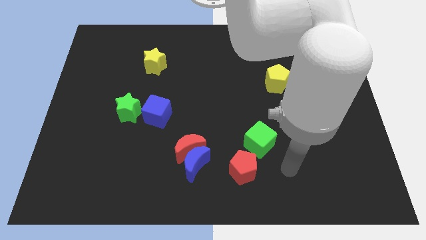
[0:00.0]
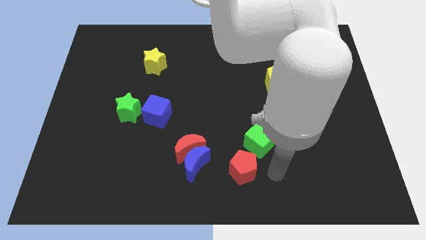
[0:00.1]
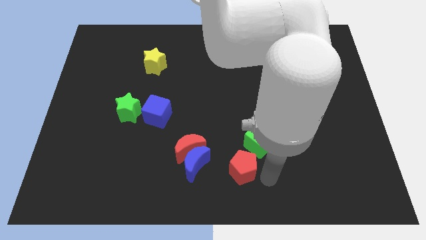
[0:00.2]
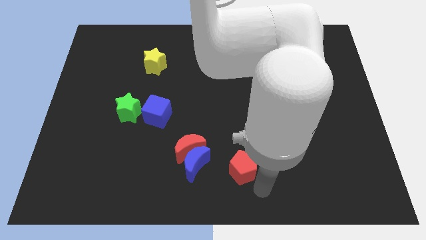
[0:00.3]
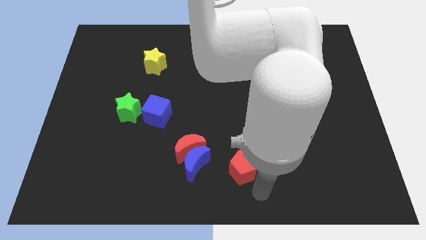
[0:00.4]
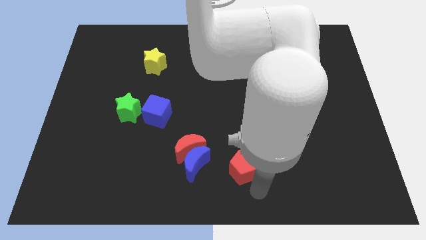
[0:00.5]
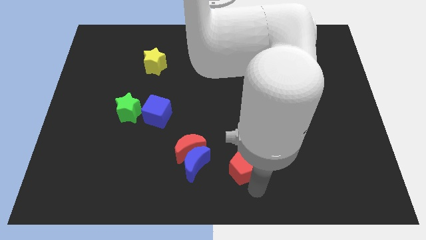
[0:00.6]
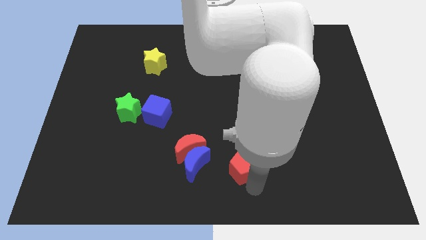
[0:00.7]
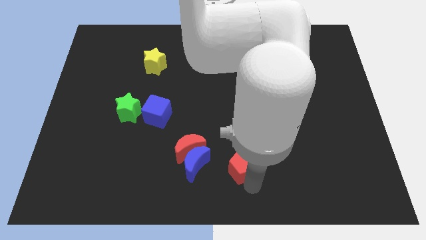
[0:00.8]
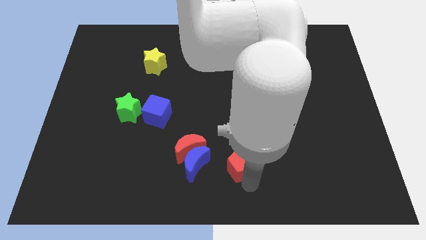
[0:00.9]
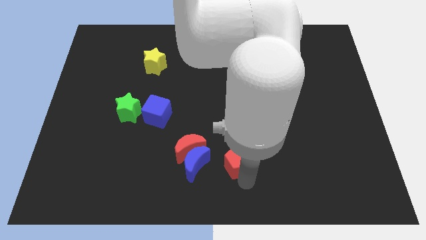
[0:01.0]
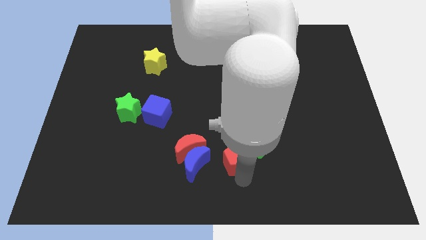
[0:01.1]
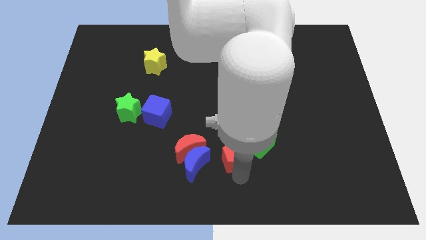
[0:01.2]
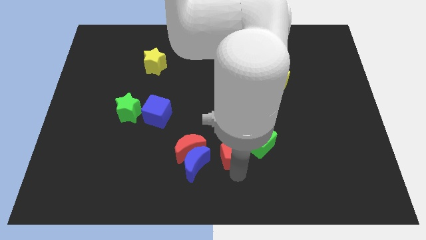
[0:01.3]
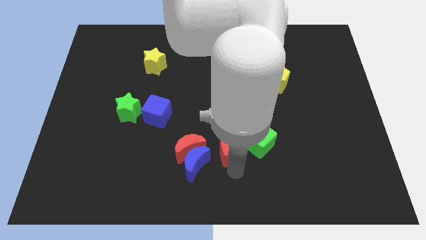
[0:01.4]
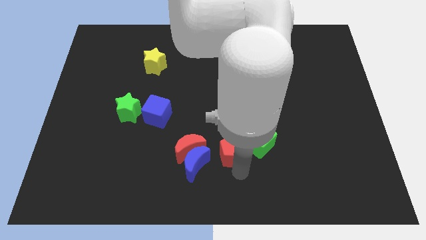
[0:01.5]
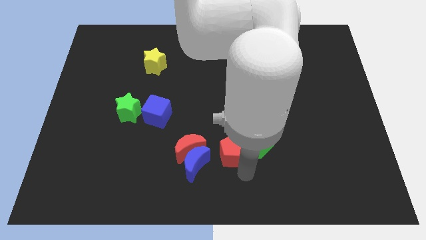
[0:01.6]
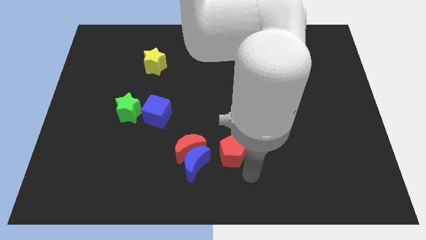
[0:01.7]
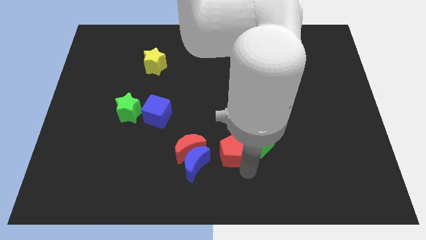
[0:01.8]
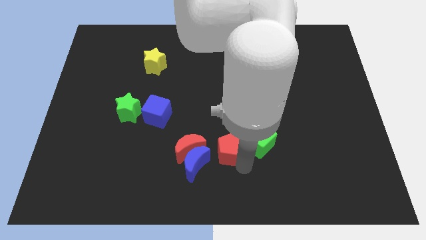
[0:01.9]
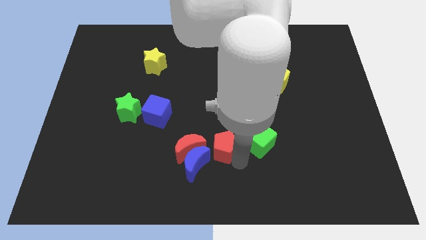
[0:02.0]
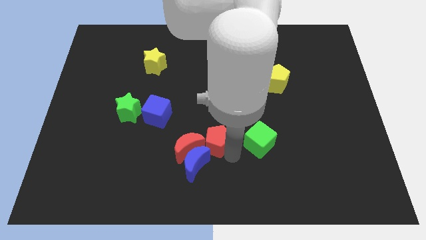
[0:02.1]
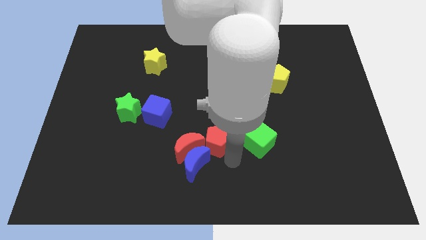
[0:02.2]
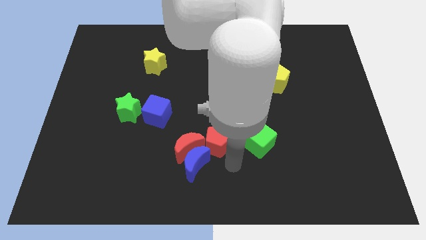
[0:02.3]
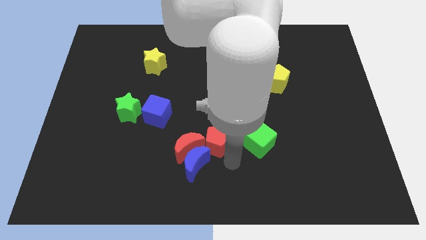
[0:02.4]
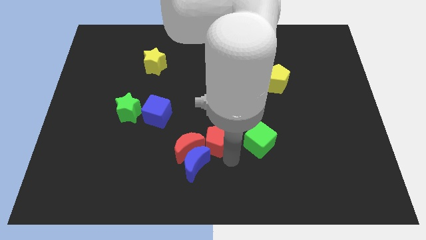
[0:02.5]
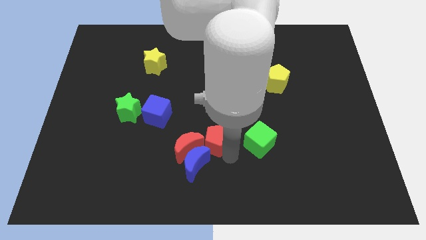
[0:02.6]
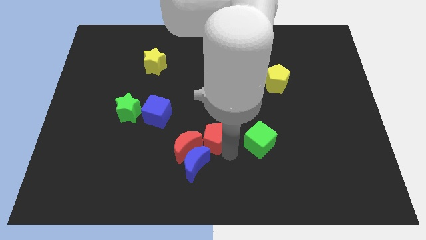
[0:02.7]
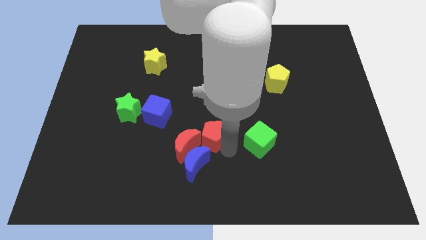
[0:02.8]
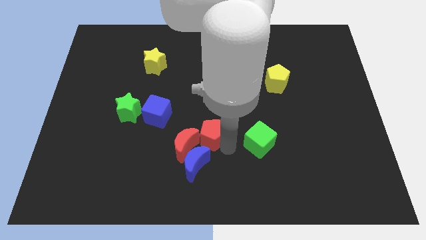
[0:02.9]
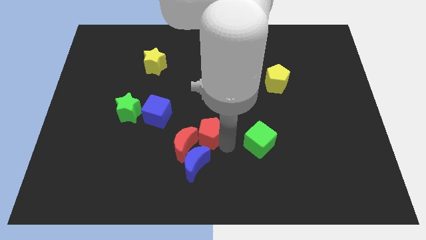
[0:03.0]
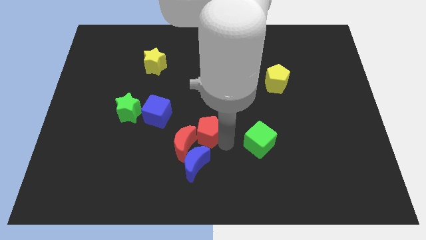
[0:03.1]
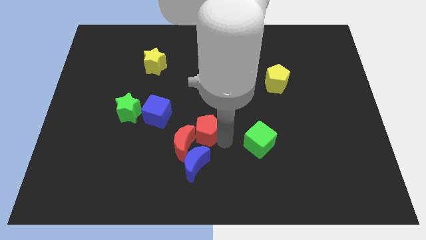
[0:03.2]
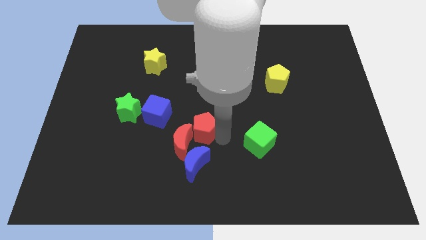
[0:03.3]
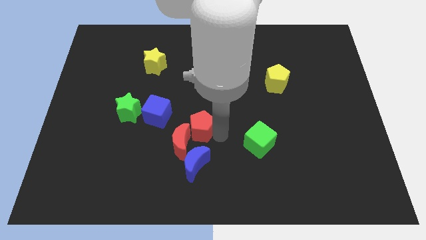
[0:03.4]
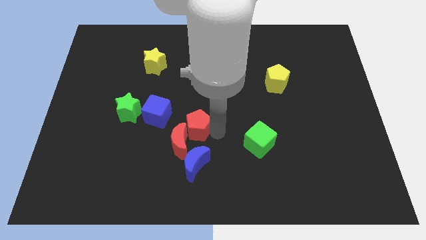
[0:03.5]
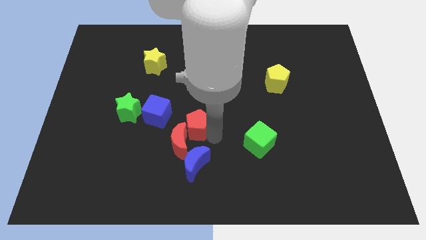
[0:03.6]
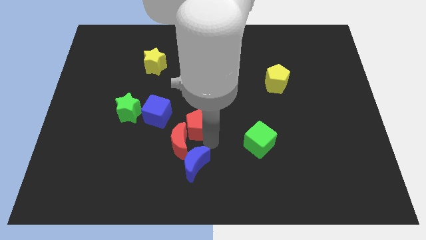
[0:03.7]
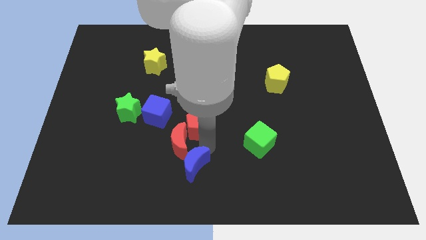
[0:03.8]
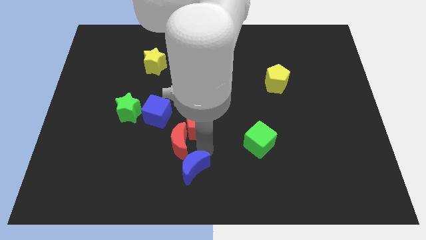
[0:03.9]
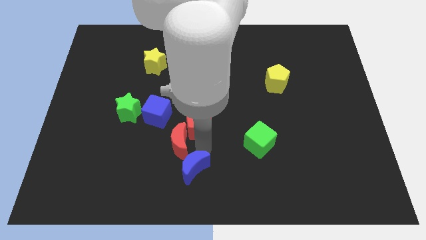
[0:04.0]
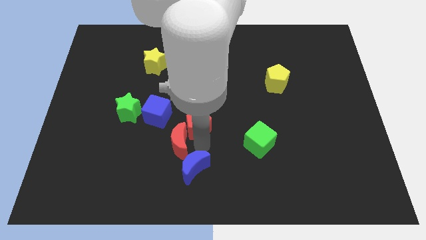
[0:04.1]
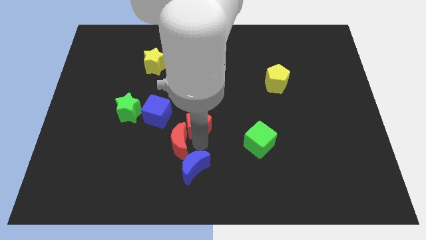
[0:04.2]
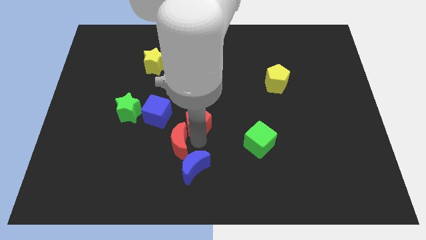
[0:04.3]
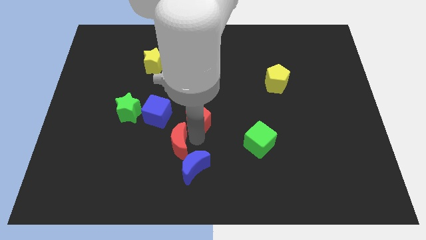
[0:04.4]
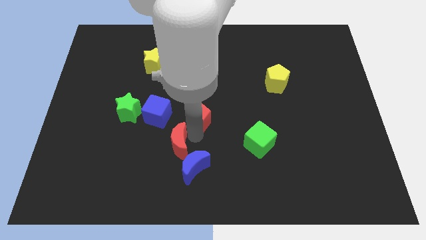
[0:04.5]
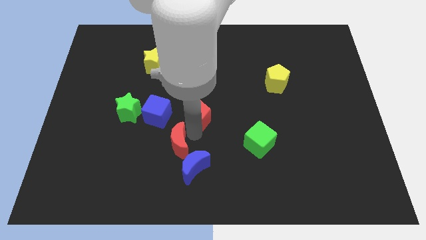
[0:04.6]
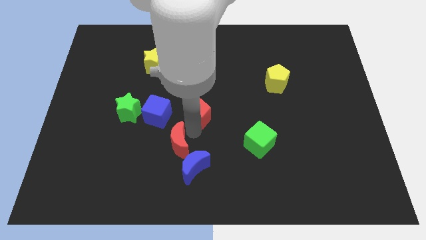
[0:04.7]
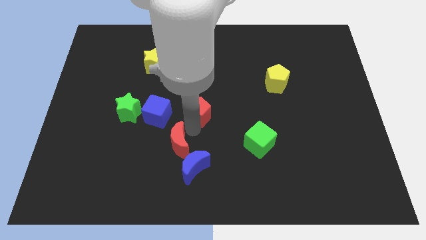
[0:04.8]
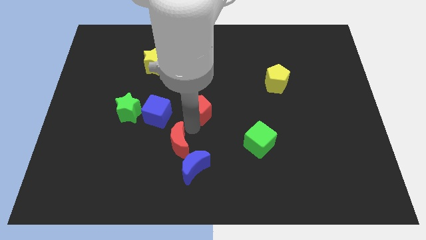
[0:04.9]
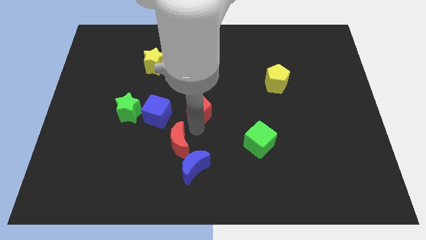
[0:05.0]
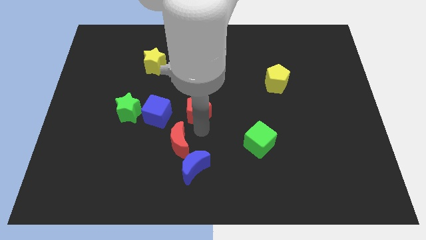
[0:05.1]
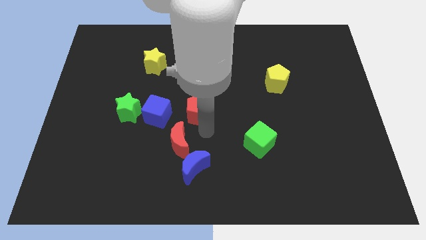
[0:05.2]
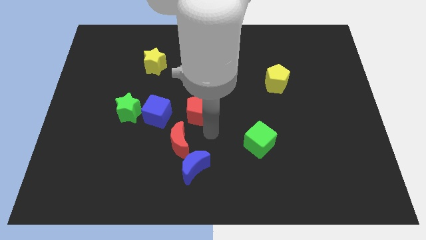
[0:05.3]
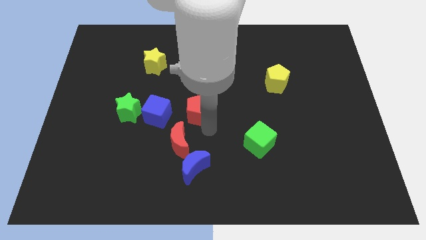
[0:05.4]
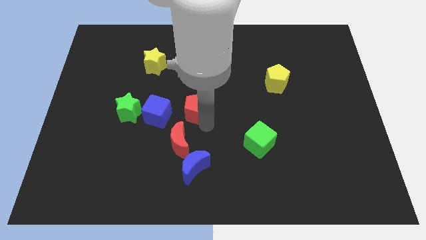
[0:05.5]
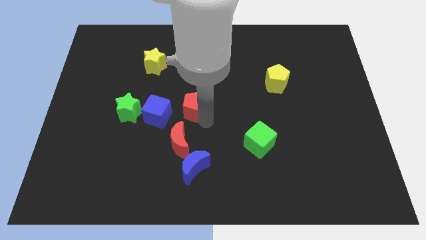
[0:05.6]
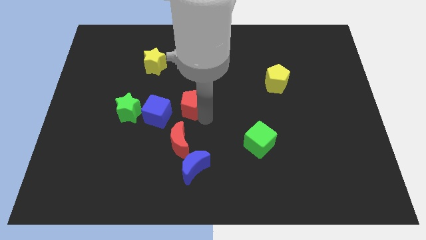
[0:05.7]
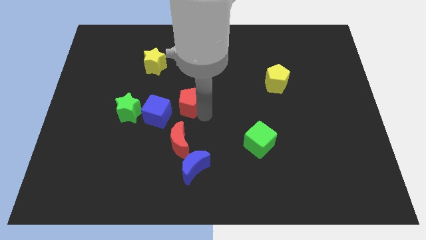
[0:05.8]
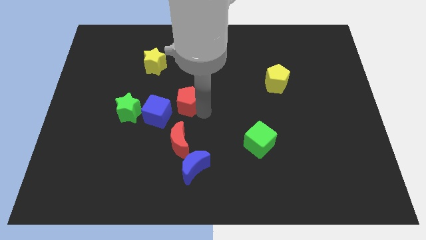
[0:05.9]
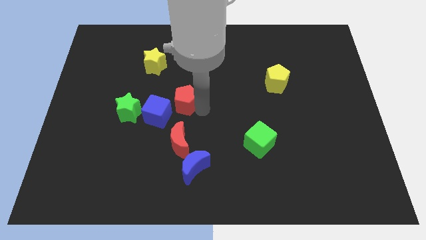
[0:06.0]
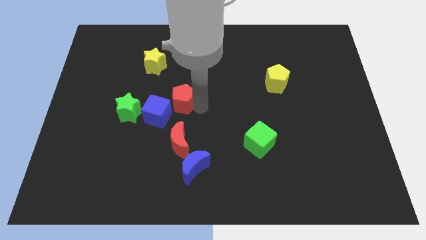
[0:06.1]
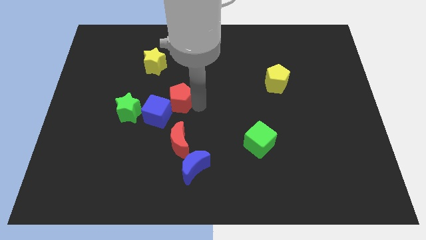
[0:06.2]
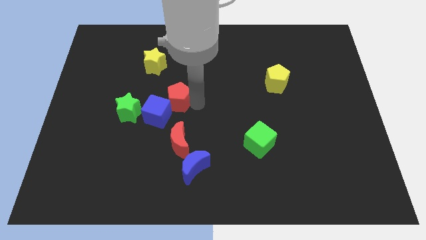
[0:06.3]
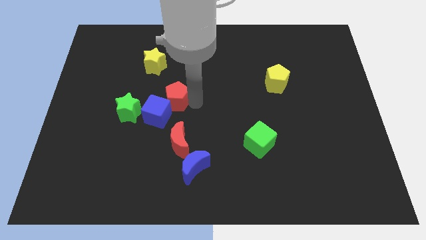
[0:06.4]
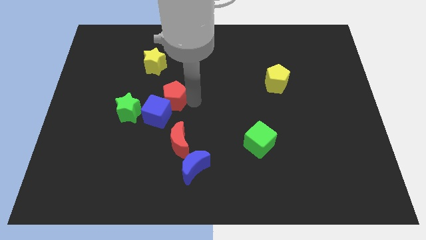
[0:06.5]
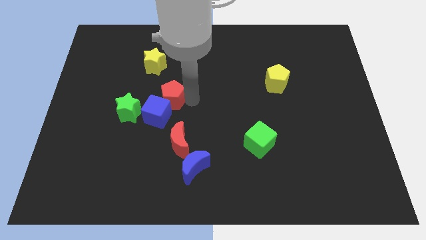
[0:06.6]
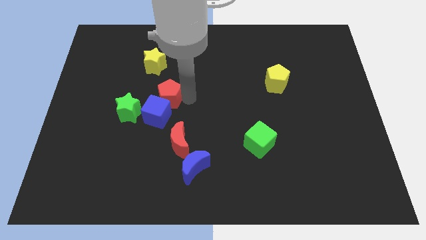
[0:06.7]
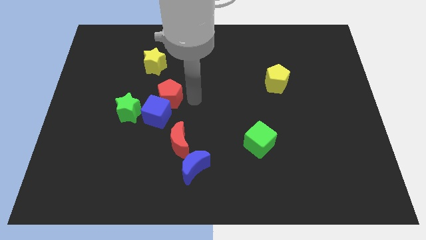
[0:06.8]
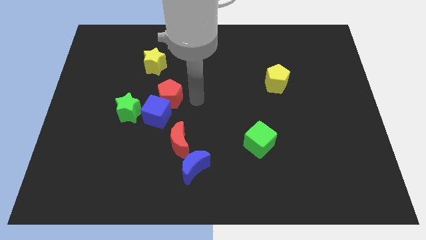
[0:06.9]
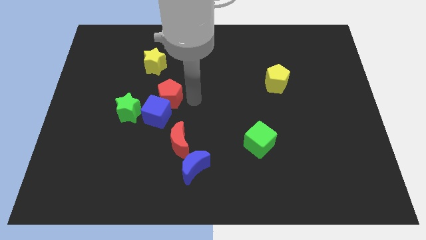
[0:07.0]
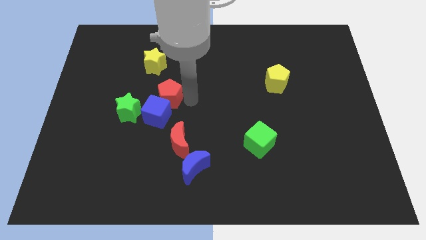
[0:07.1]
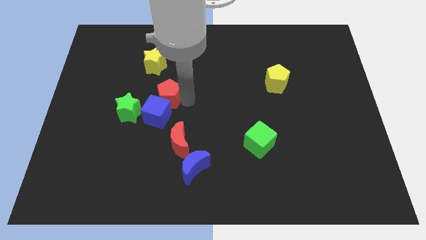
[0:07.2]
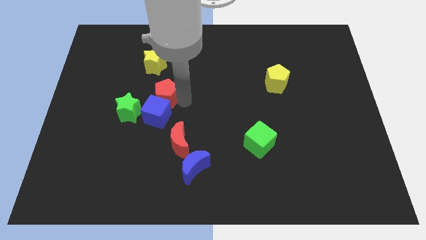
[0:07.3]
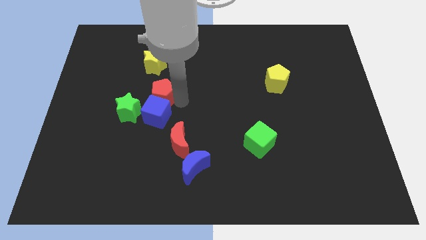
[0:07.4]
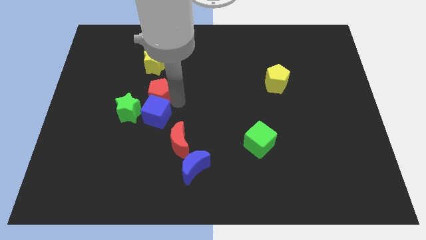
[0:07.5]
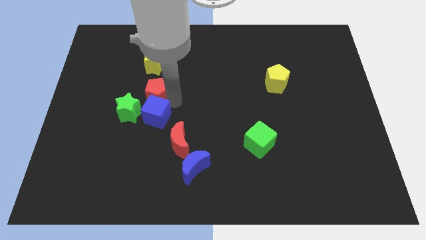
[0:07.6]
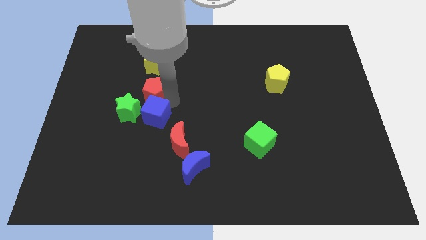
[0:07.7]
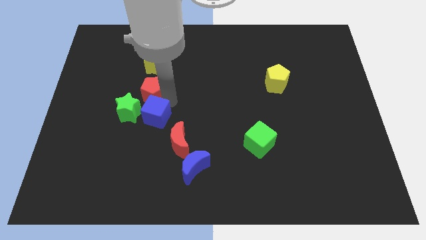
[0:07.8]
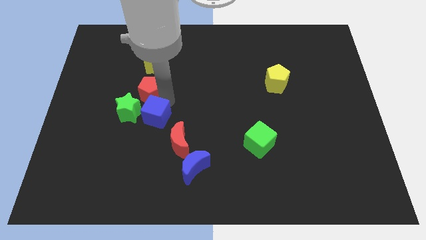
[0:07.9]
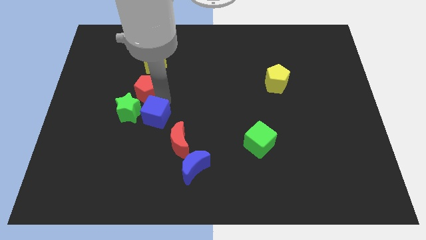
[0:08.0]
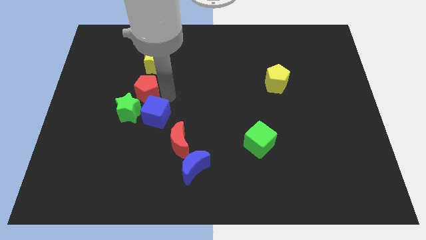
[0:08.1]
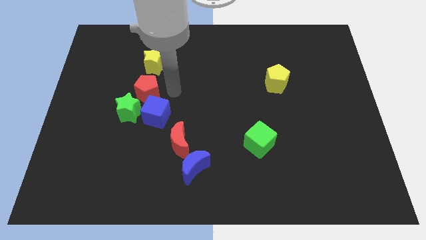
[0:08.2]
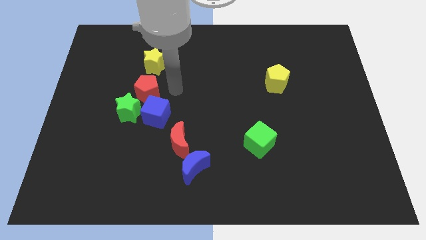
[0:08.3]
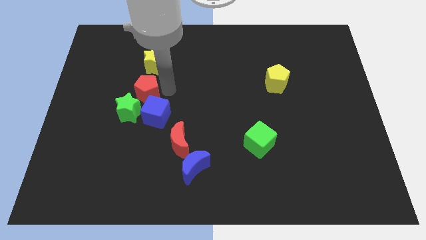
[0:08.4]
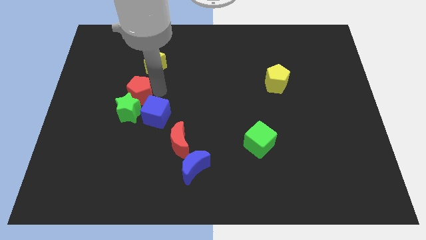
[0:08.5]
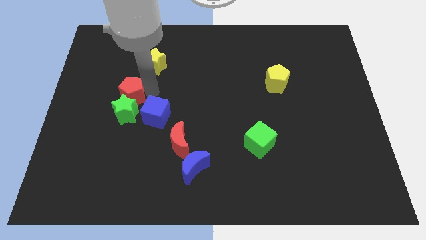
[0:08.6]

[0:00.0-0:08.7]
move the red pentagon to the top left of the green star
